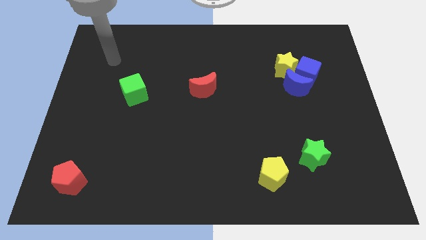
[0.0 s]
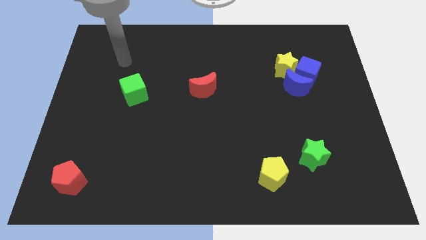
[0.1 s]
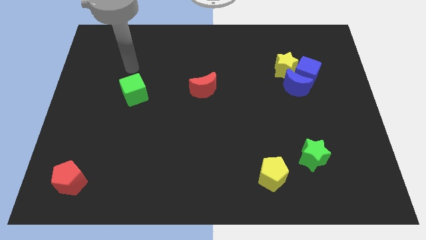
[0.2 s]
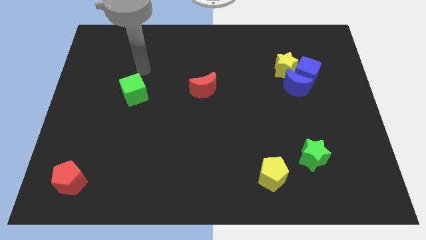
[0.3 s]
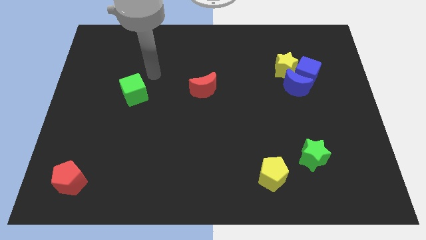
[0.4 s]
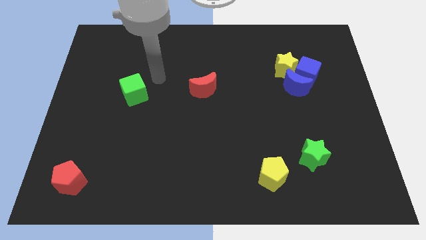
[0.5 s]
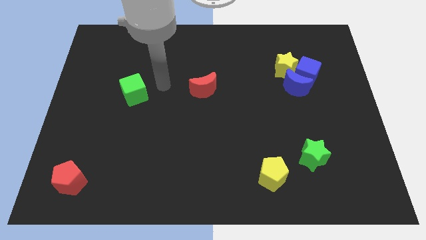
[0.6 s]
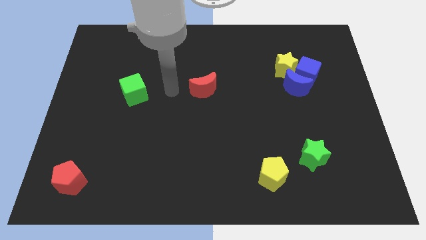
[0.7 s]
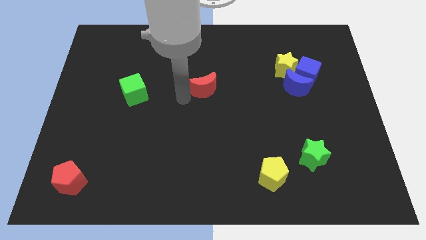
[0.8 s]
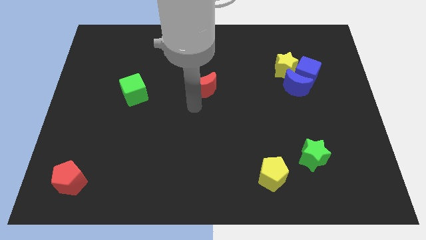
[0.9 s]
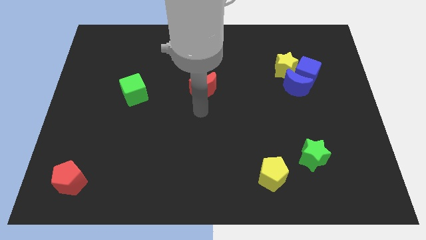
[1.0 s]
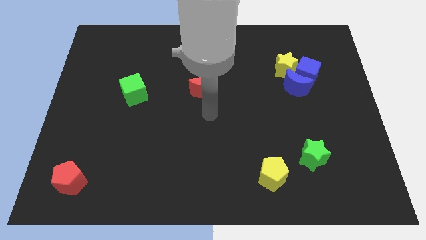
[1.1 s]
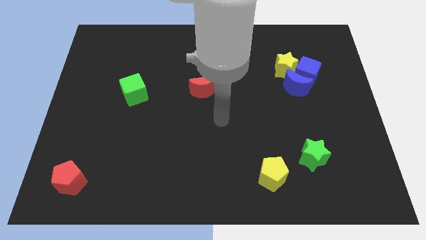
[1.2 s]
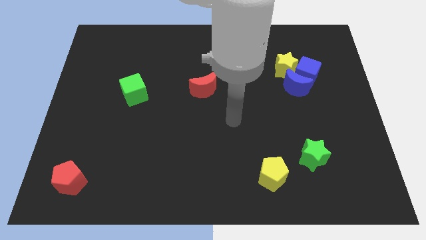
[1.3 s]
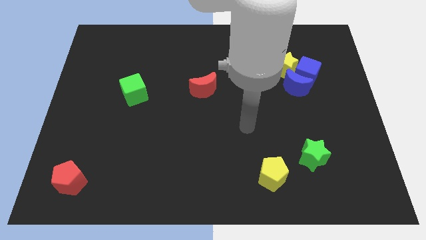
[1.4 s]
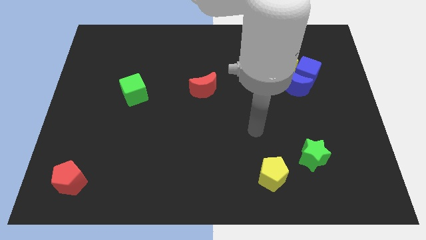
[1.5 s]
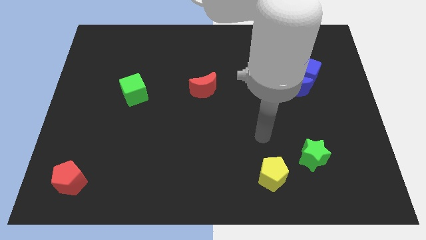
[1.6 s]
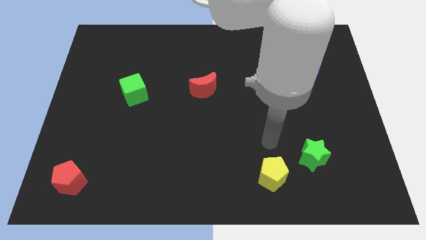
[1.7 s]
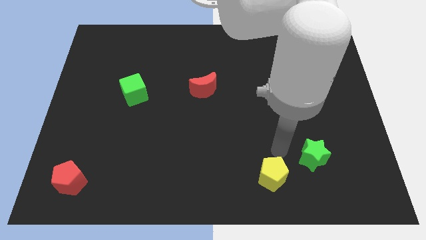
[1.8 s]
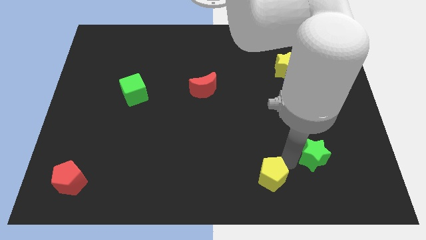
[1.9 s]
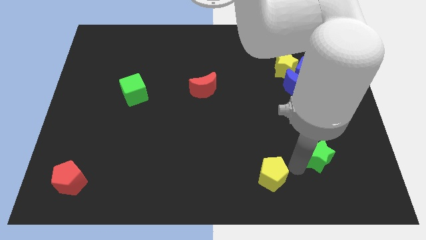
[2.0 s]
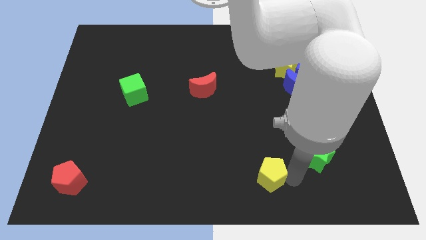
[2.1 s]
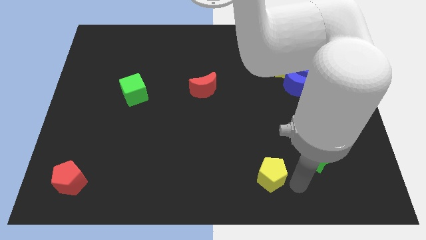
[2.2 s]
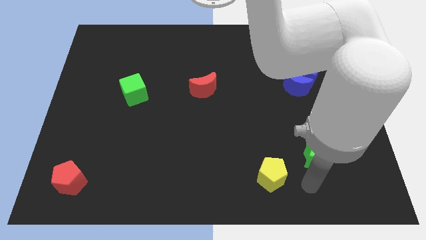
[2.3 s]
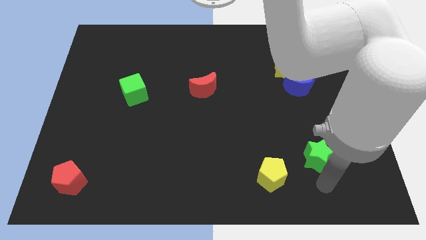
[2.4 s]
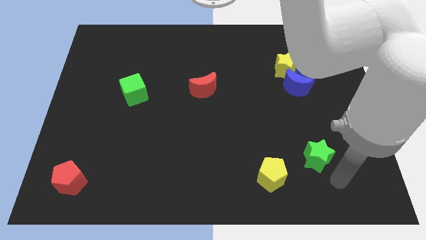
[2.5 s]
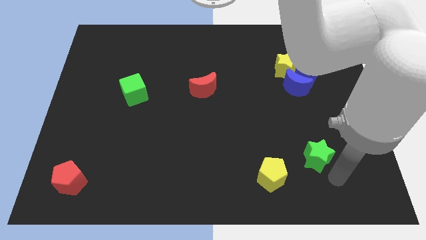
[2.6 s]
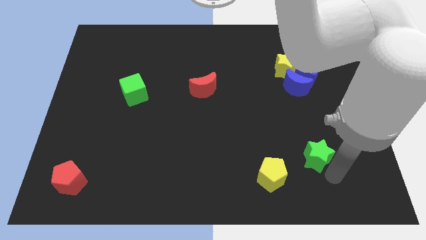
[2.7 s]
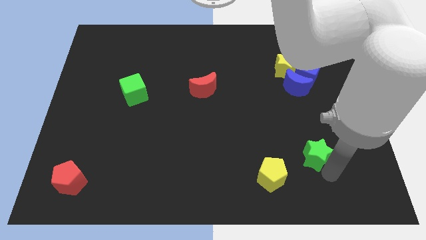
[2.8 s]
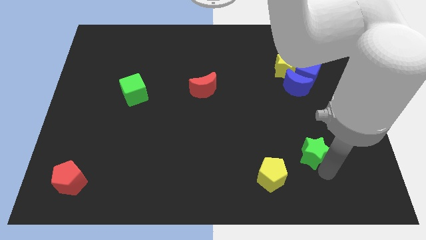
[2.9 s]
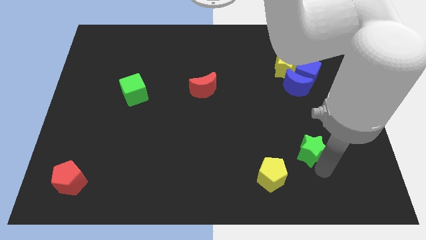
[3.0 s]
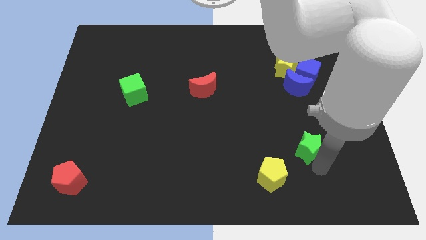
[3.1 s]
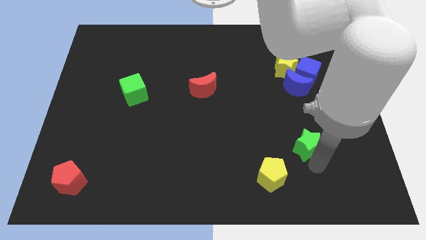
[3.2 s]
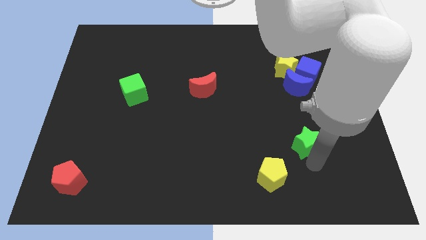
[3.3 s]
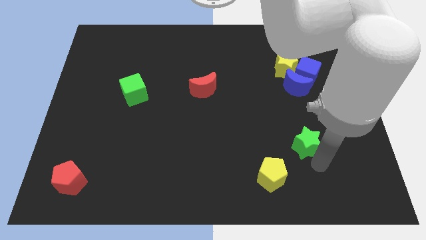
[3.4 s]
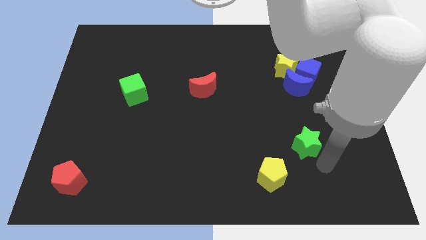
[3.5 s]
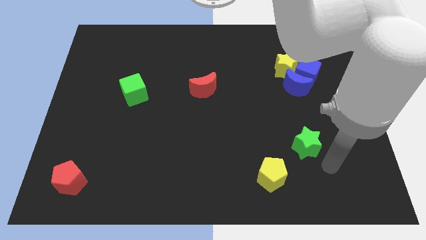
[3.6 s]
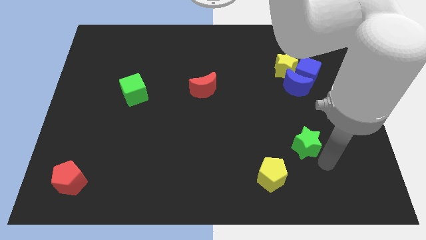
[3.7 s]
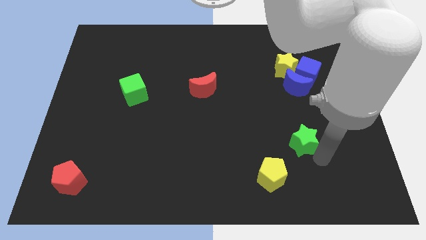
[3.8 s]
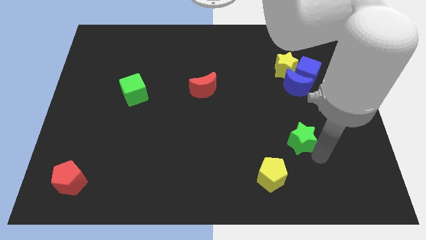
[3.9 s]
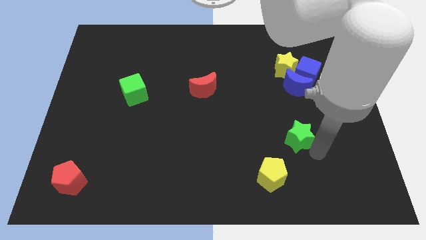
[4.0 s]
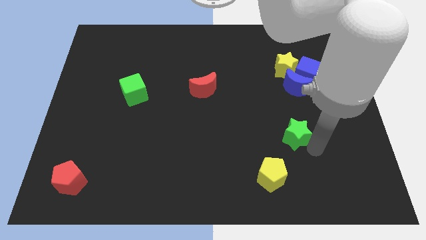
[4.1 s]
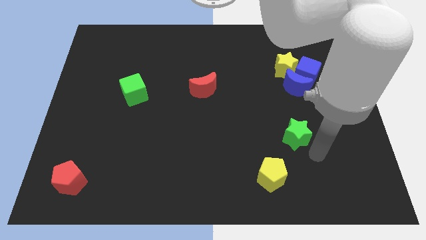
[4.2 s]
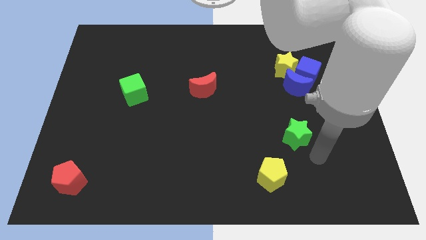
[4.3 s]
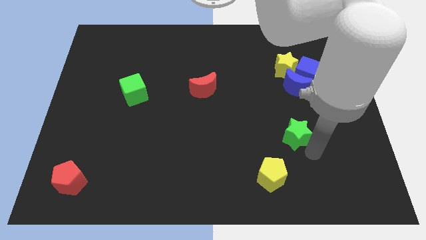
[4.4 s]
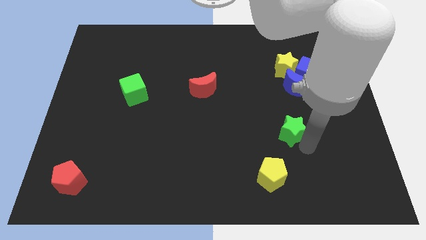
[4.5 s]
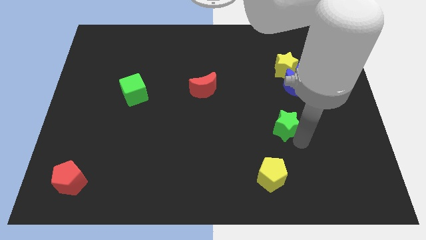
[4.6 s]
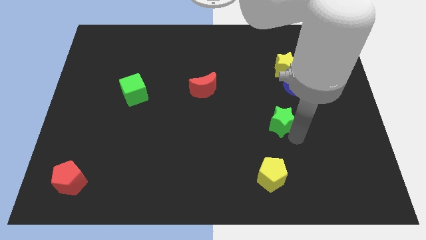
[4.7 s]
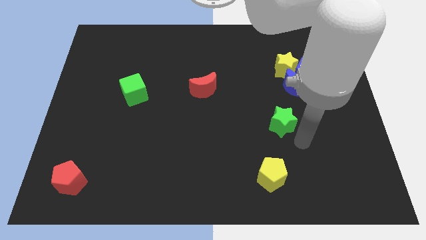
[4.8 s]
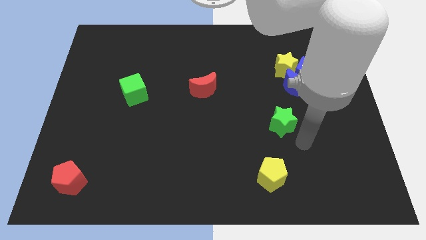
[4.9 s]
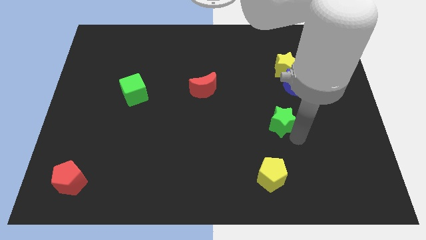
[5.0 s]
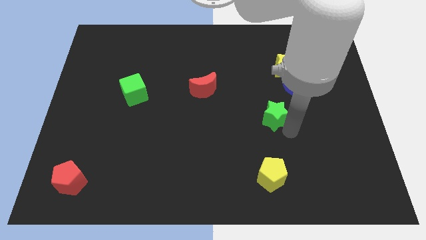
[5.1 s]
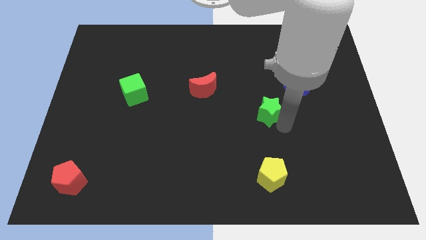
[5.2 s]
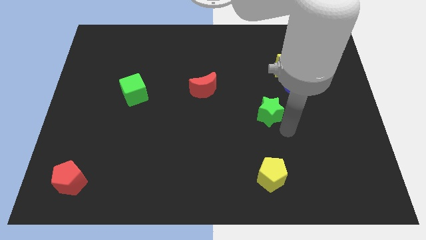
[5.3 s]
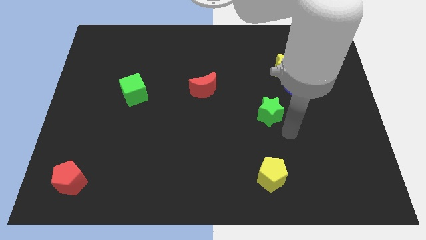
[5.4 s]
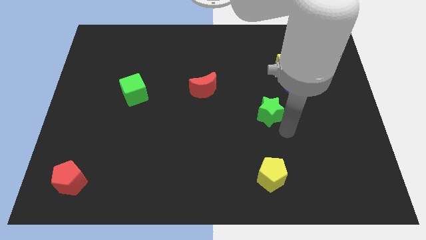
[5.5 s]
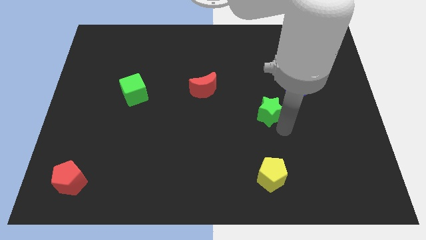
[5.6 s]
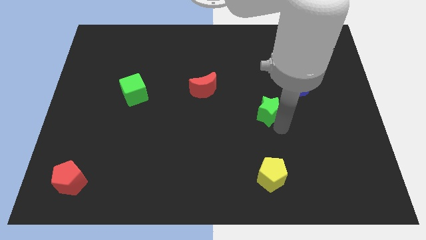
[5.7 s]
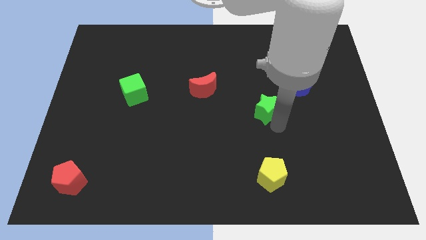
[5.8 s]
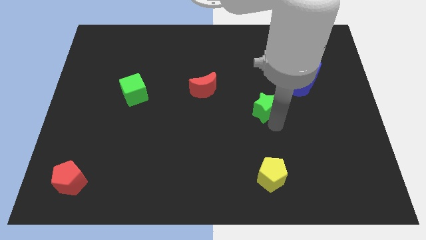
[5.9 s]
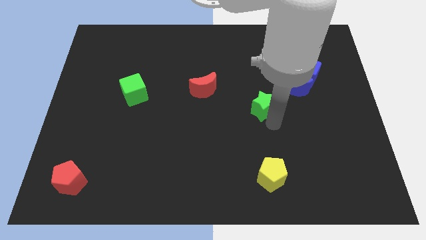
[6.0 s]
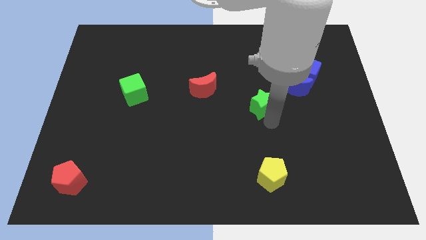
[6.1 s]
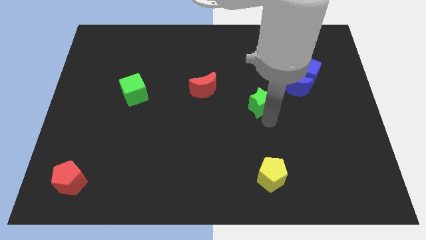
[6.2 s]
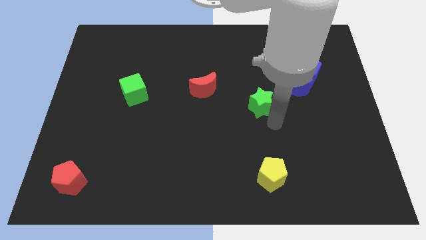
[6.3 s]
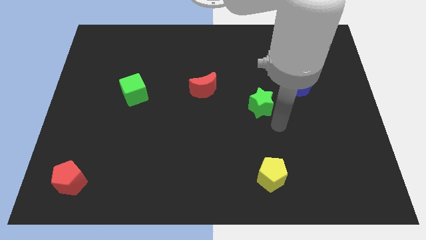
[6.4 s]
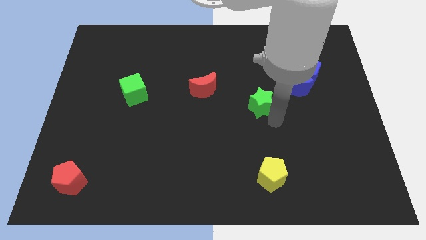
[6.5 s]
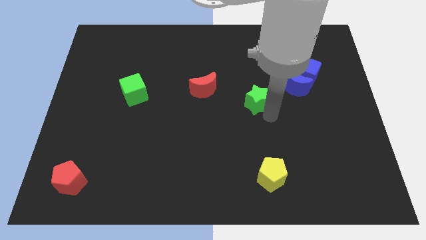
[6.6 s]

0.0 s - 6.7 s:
put the green star to the right side of the red moon

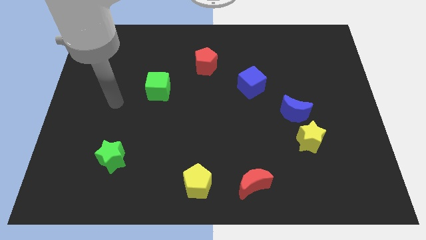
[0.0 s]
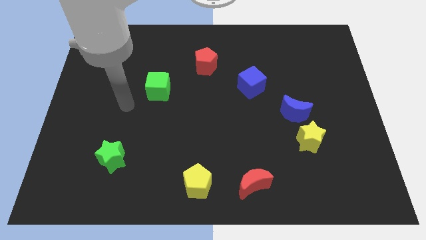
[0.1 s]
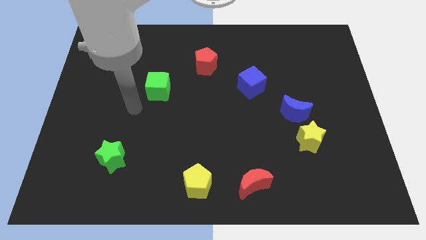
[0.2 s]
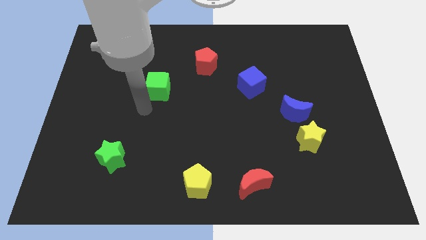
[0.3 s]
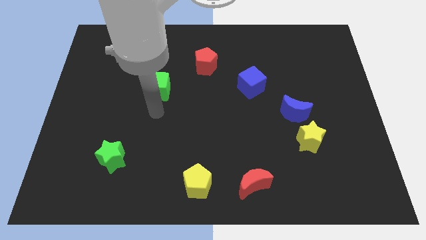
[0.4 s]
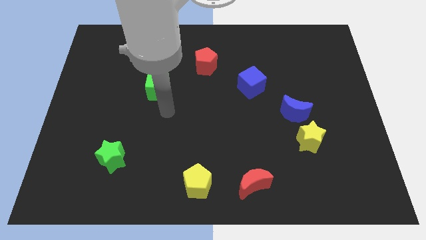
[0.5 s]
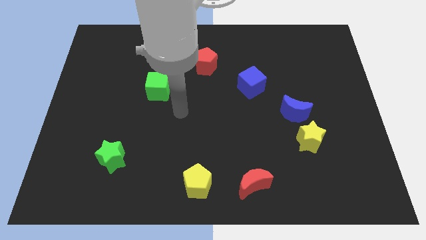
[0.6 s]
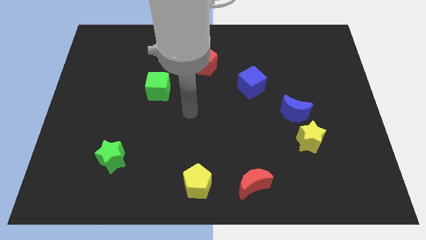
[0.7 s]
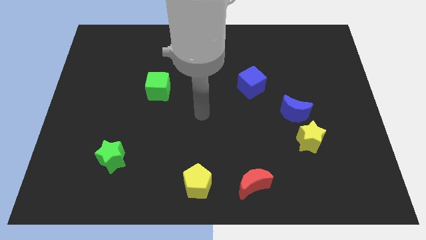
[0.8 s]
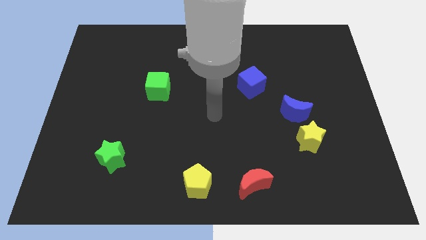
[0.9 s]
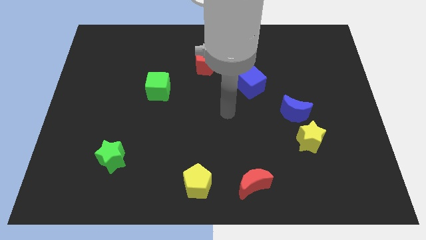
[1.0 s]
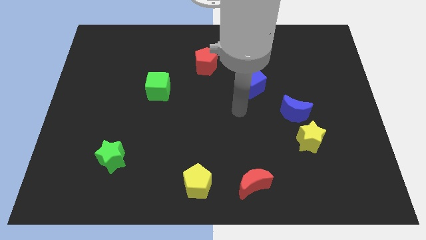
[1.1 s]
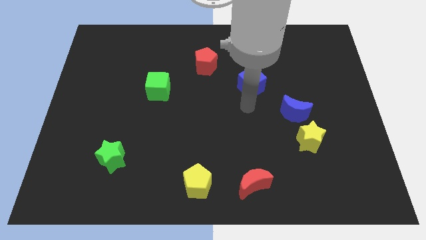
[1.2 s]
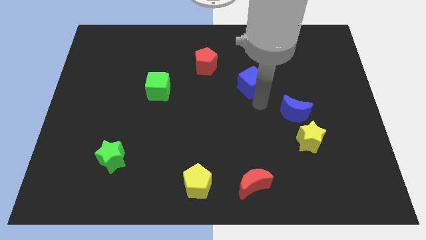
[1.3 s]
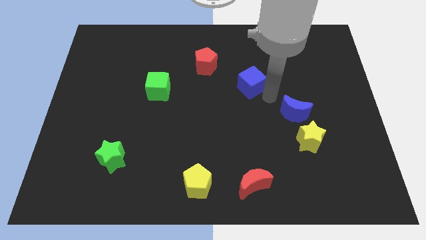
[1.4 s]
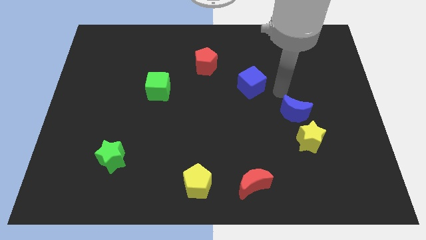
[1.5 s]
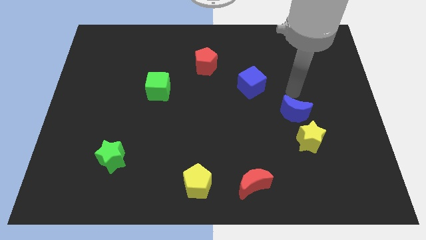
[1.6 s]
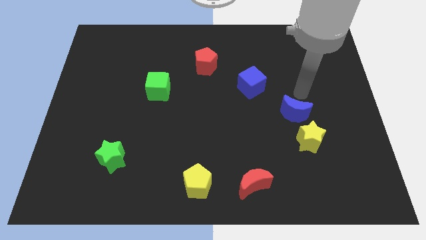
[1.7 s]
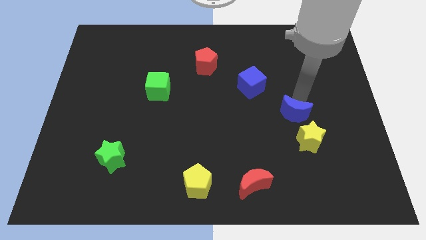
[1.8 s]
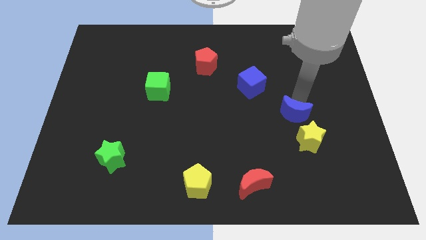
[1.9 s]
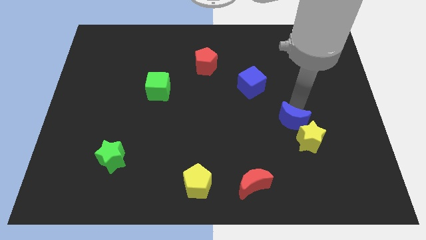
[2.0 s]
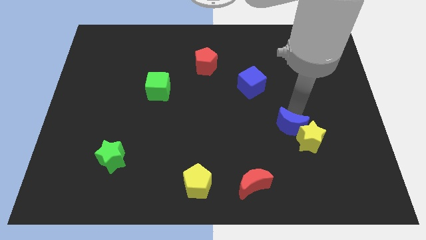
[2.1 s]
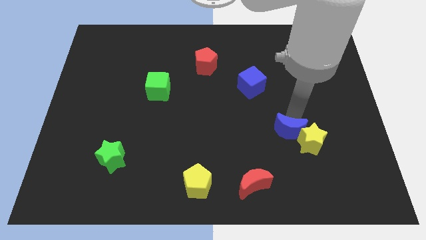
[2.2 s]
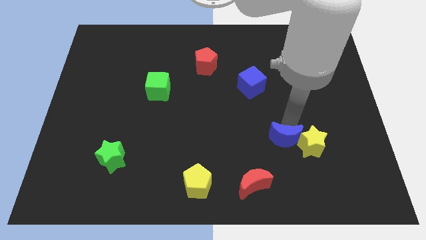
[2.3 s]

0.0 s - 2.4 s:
move the blue moon diagonally down and to the left of the yellow star
